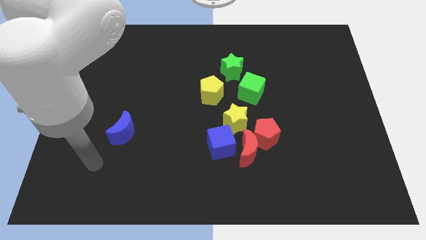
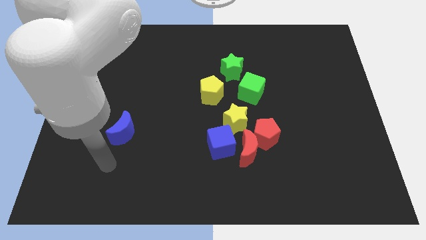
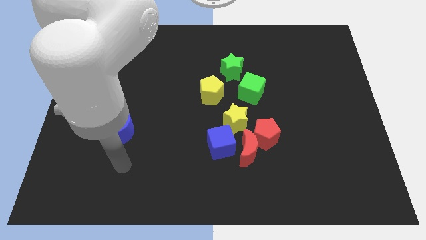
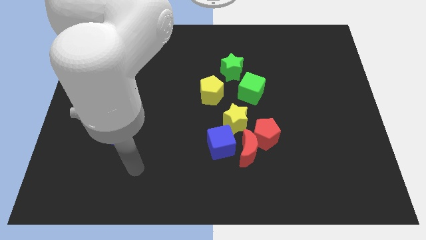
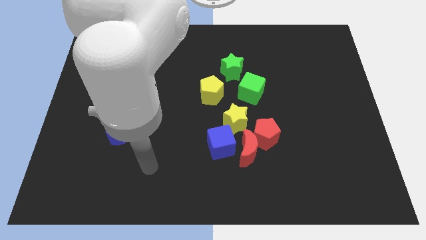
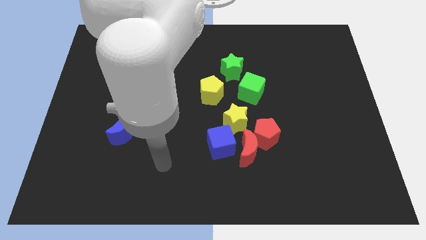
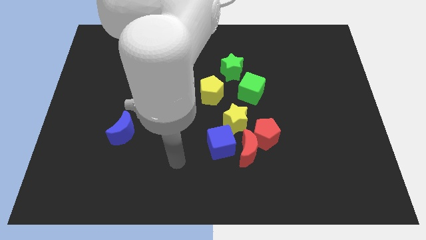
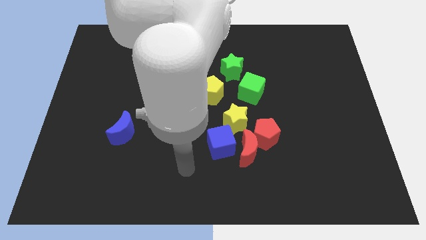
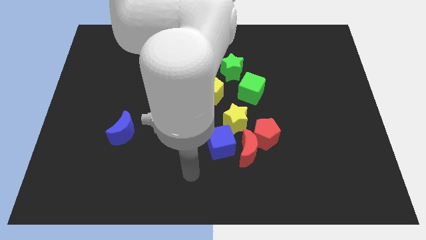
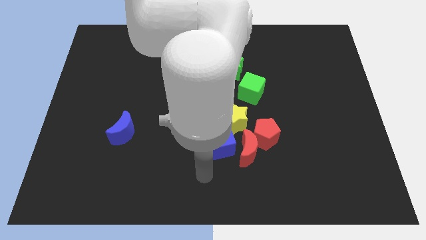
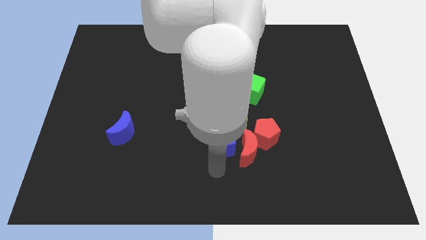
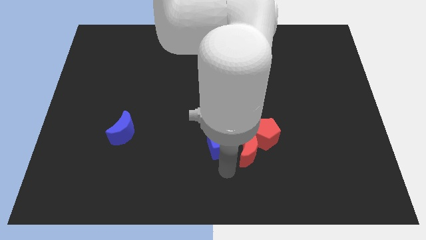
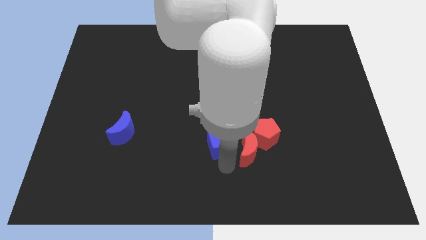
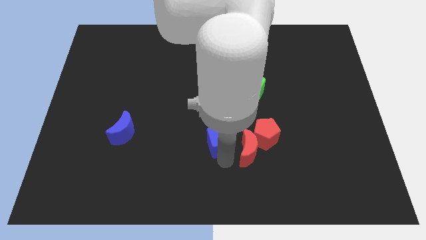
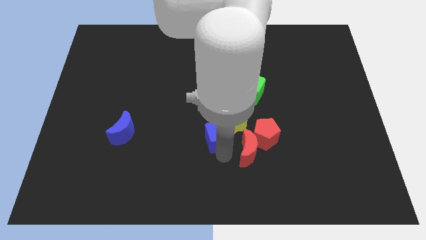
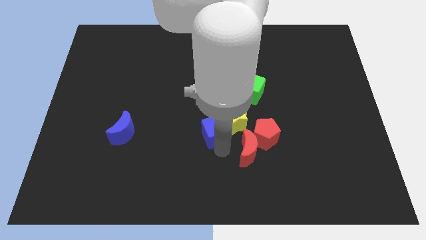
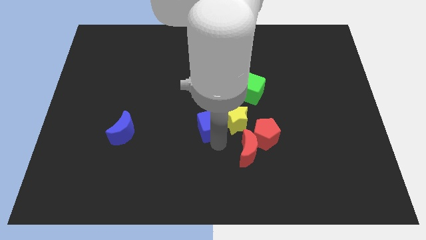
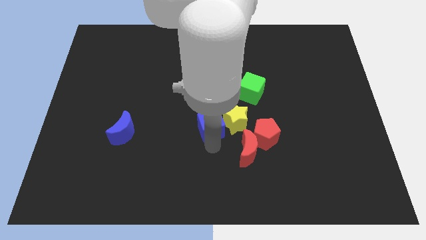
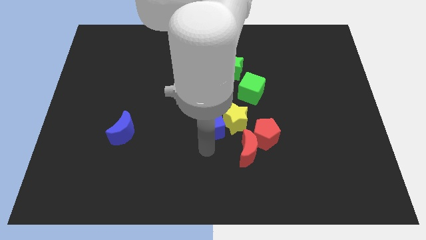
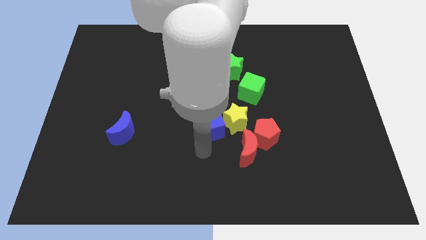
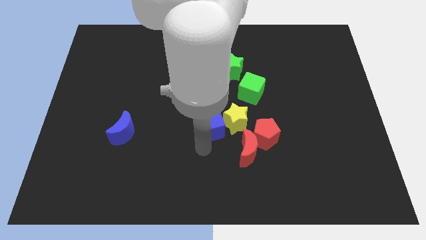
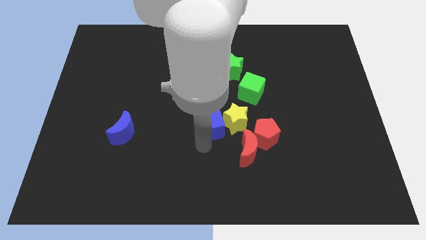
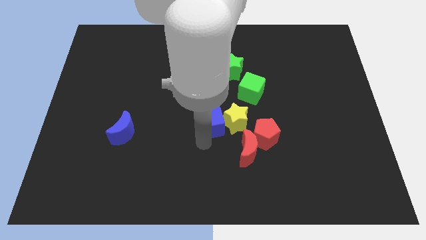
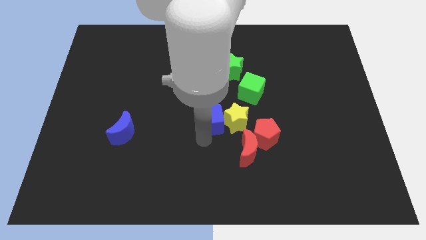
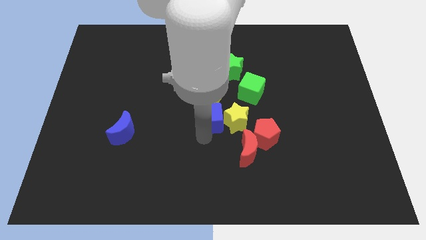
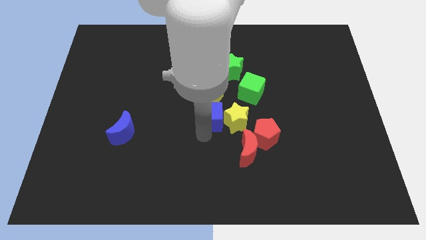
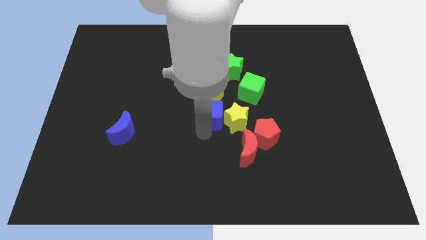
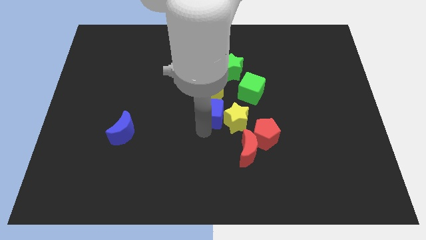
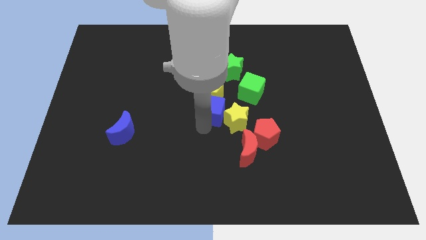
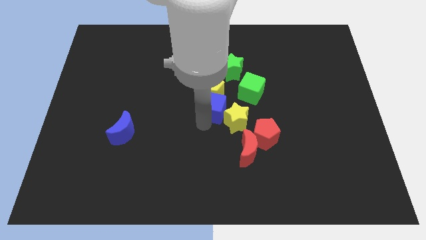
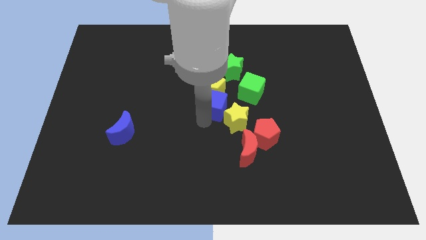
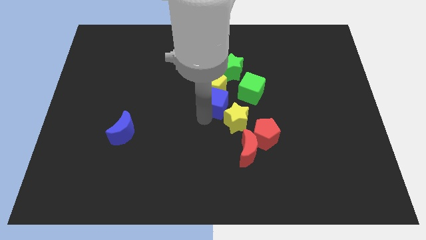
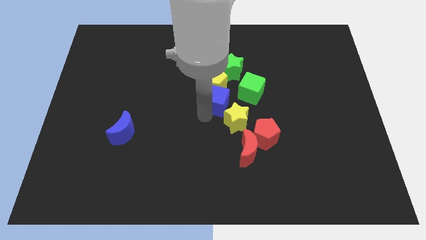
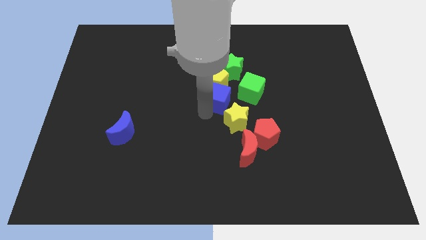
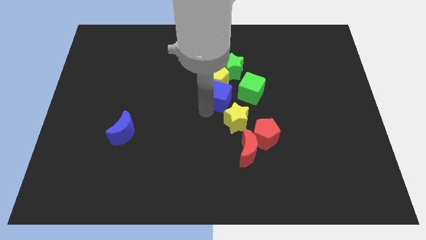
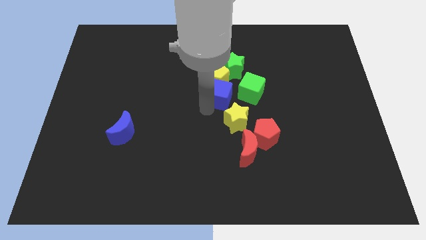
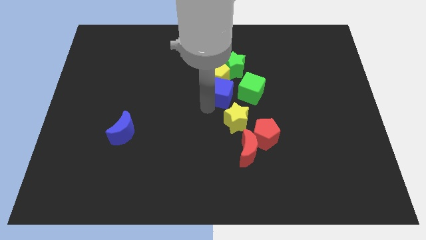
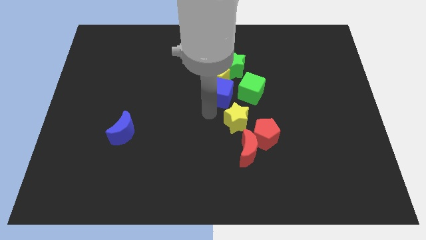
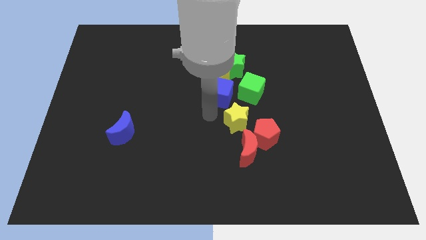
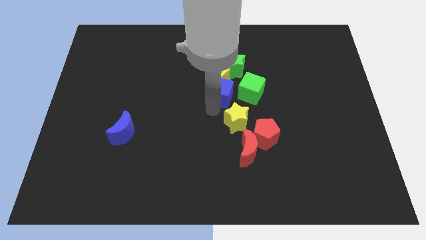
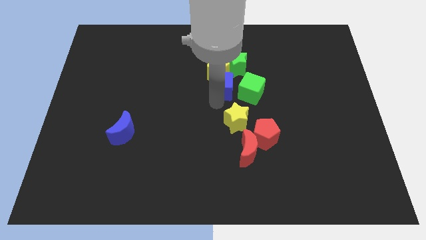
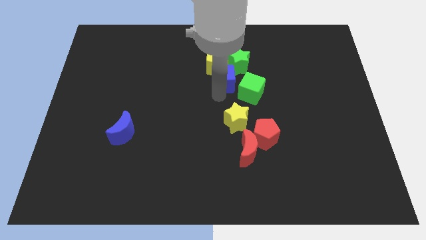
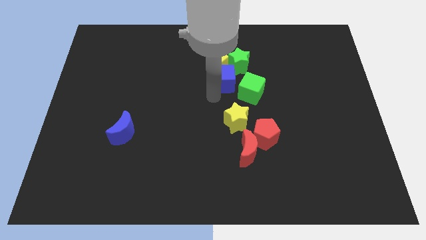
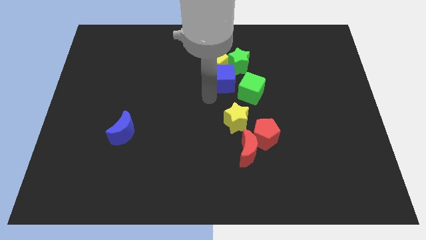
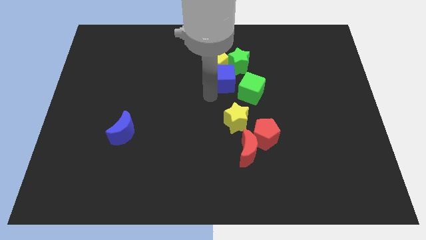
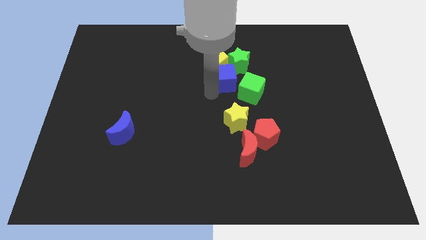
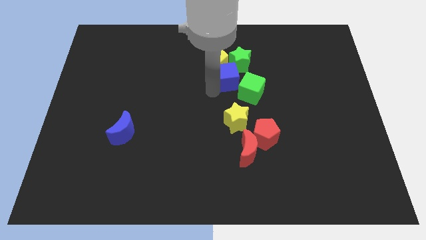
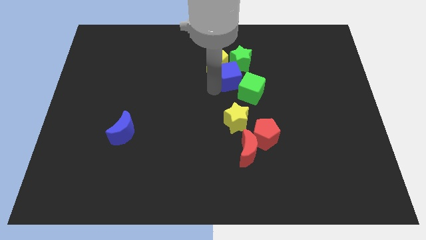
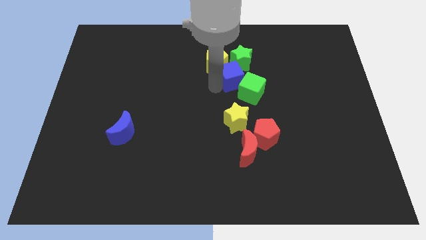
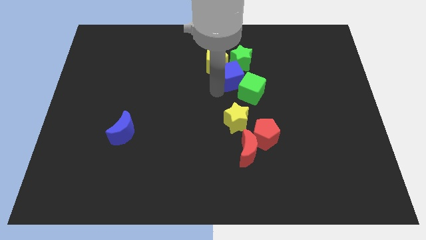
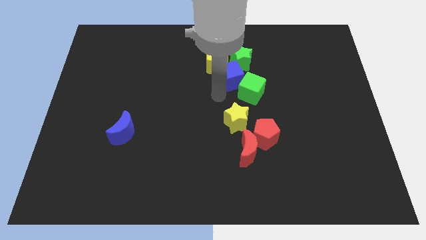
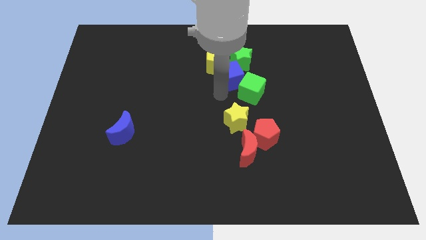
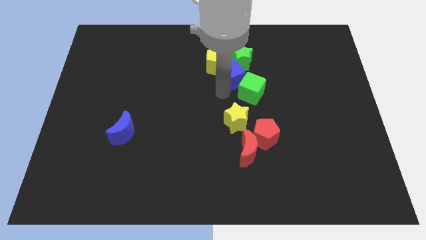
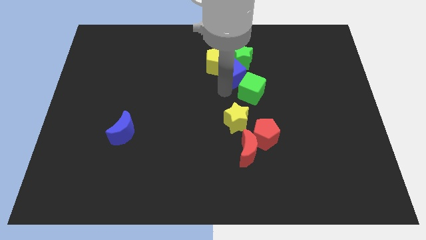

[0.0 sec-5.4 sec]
slide the blue cube next to the green star

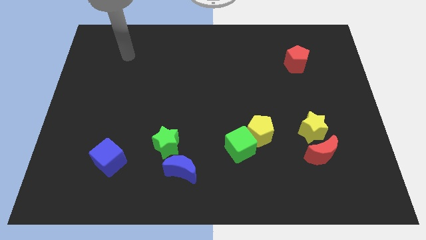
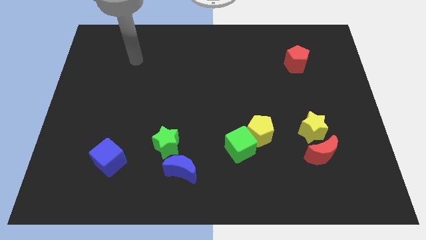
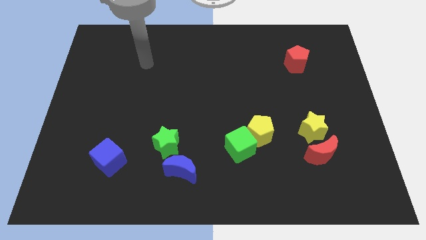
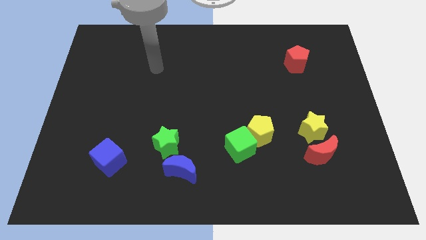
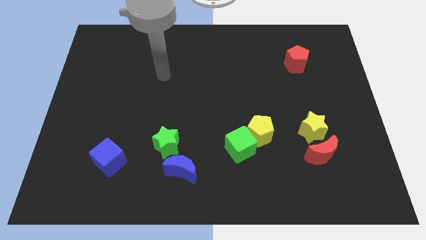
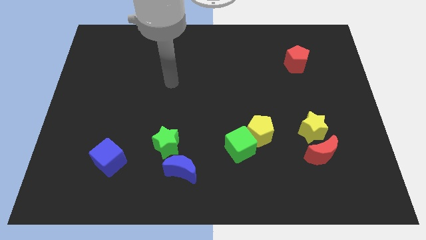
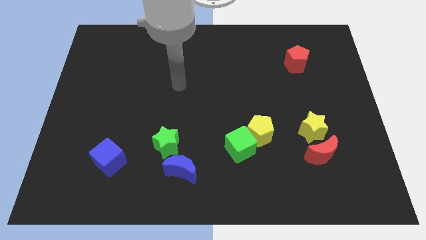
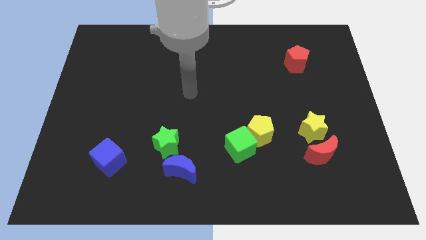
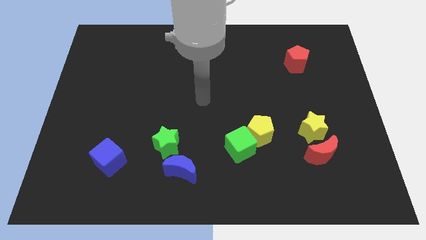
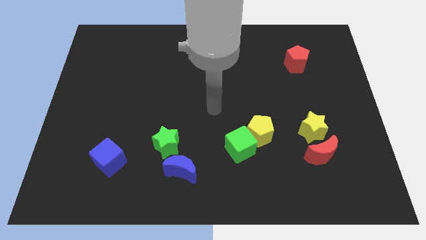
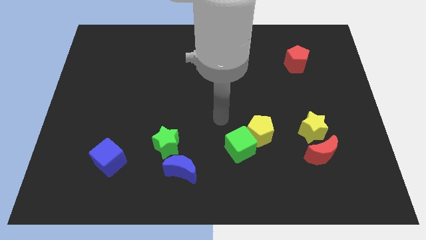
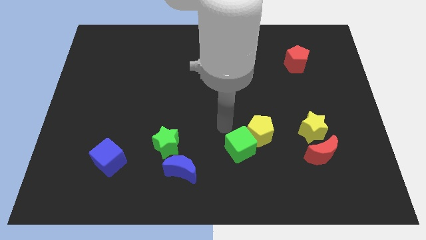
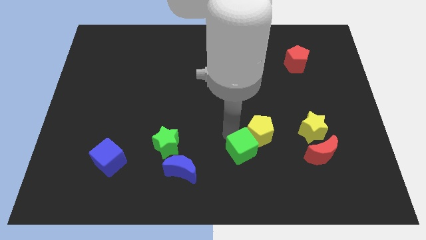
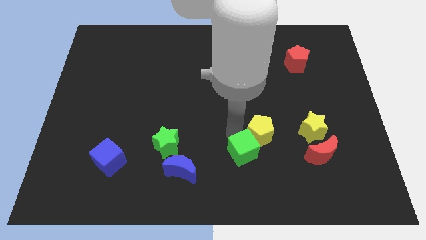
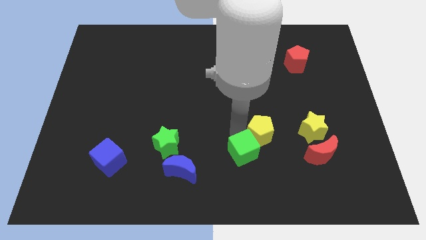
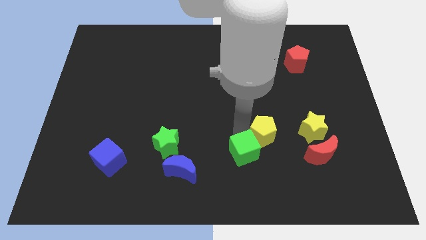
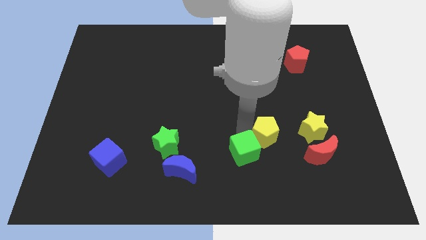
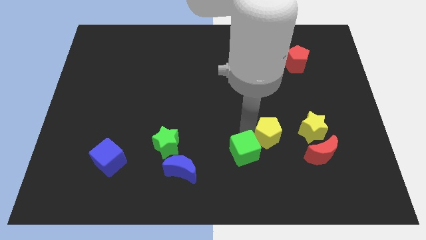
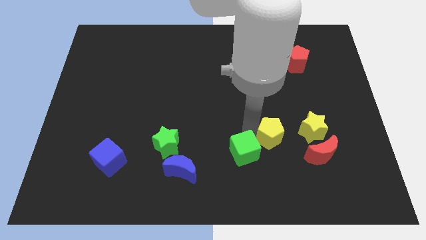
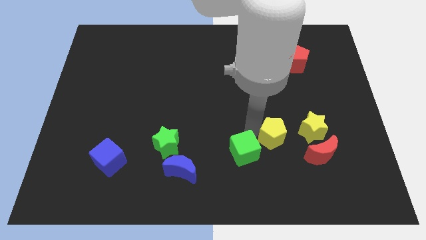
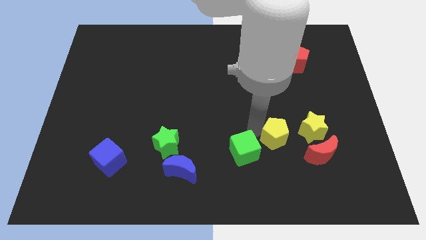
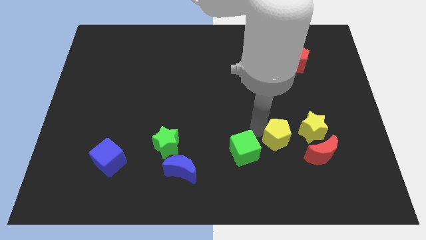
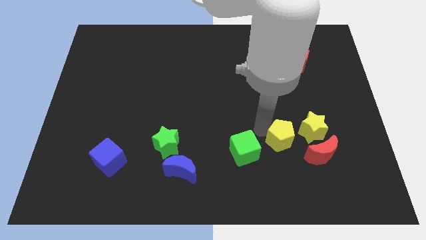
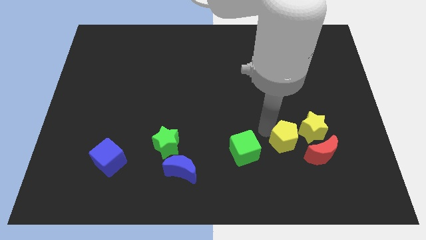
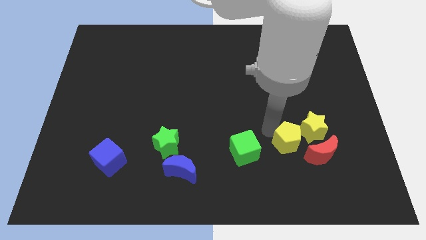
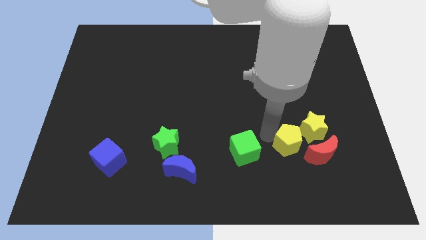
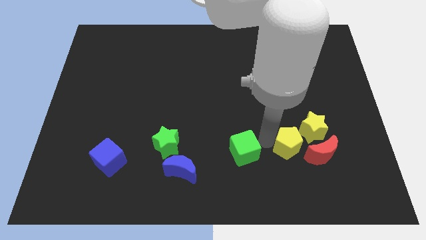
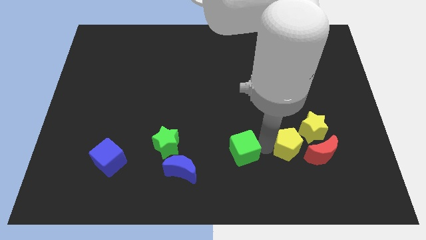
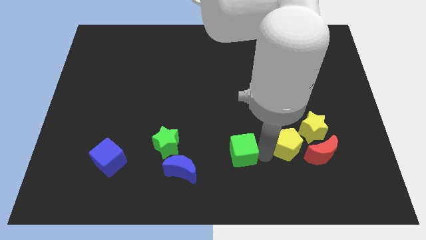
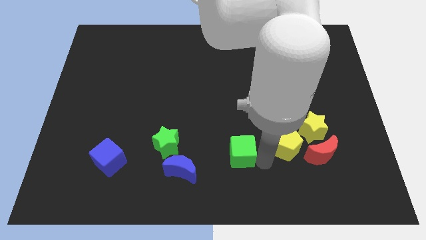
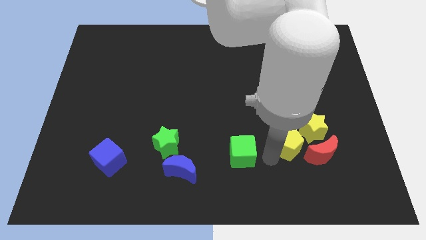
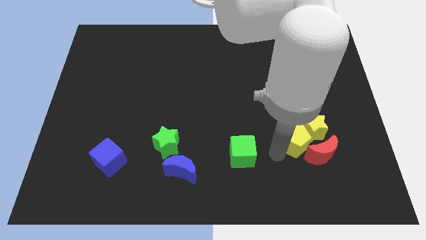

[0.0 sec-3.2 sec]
move the yellow pentagon close to the yellow star
